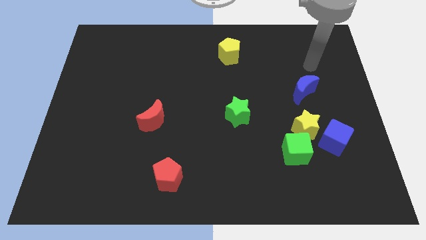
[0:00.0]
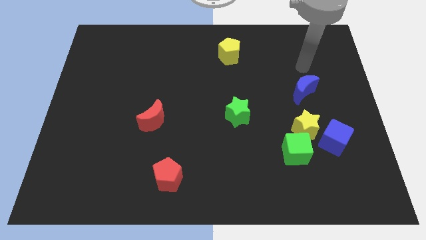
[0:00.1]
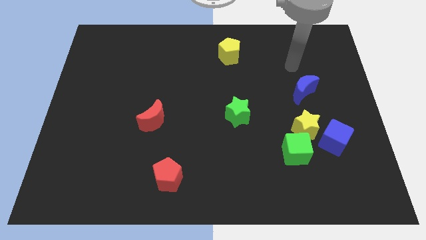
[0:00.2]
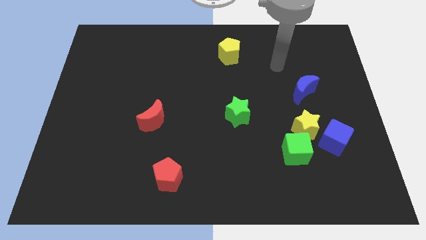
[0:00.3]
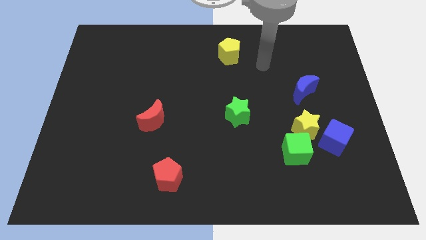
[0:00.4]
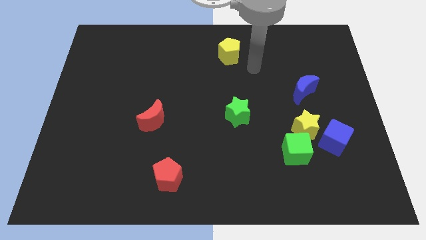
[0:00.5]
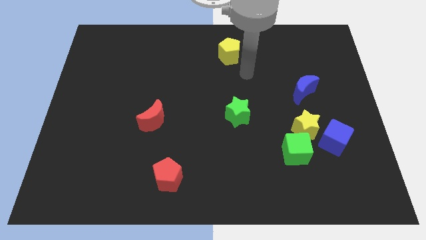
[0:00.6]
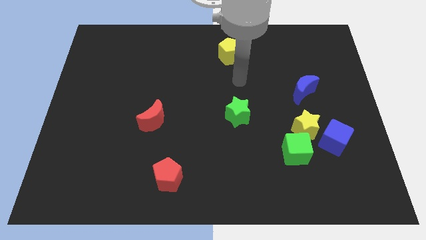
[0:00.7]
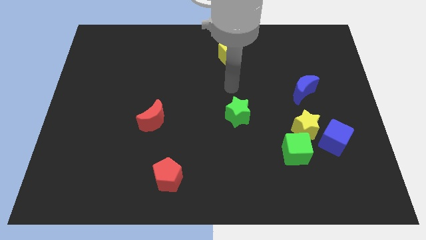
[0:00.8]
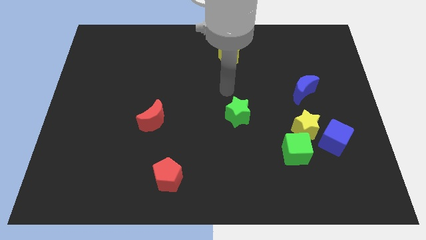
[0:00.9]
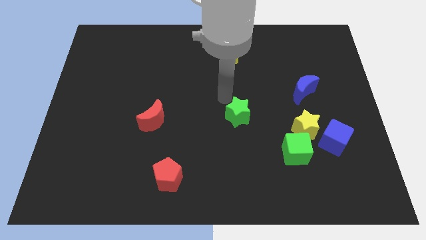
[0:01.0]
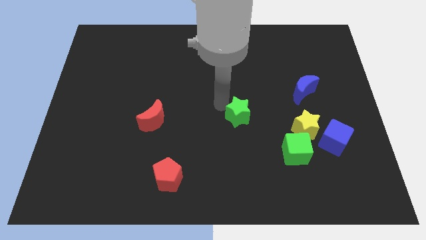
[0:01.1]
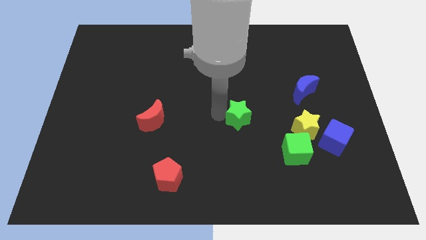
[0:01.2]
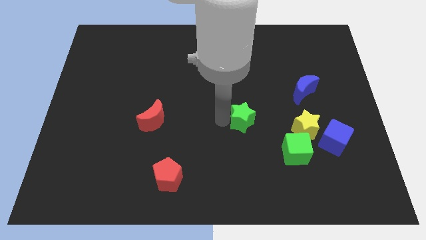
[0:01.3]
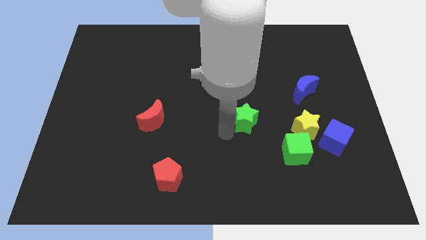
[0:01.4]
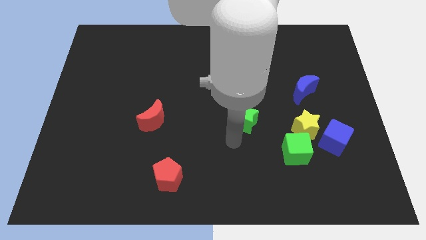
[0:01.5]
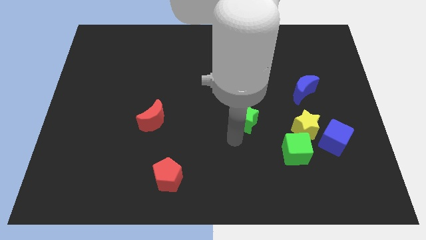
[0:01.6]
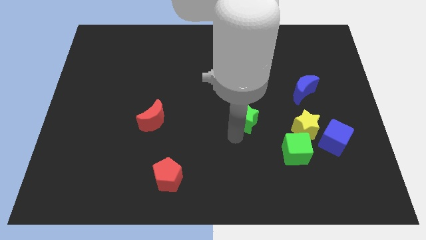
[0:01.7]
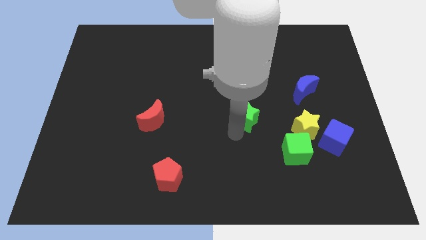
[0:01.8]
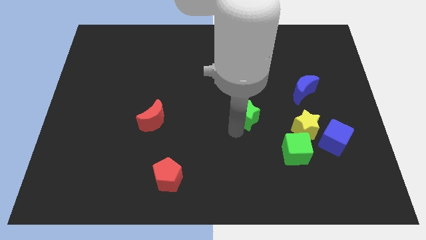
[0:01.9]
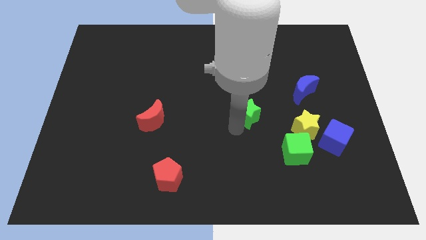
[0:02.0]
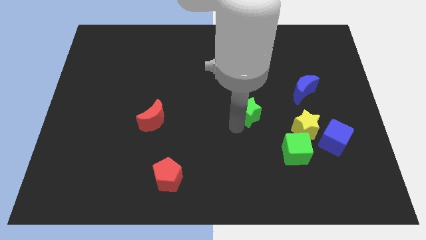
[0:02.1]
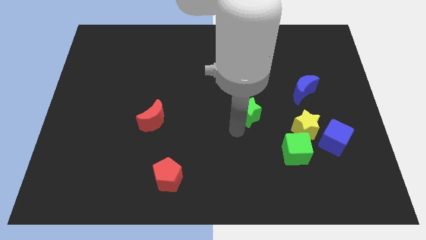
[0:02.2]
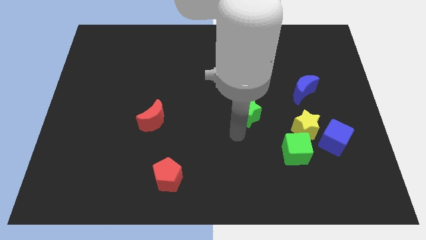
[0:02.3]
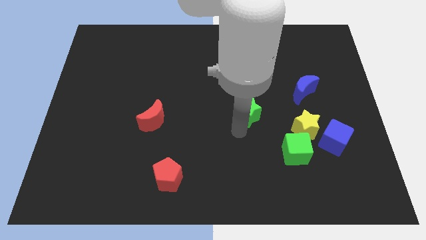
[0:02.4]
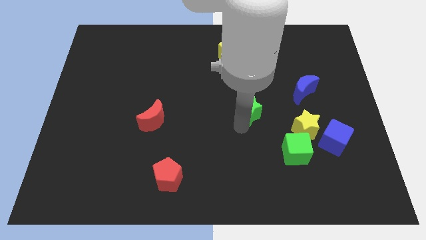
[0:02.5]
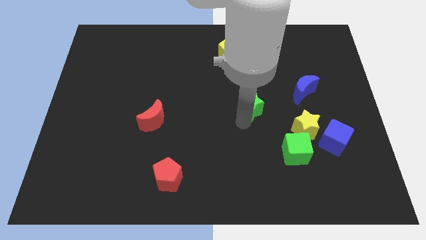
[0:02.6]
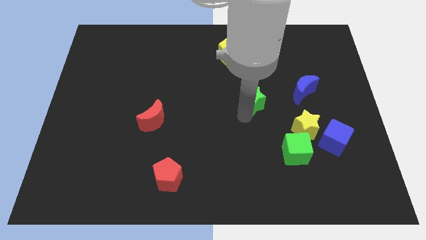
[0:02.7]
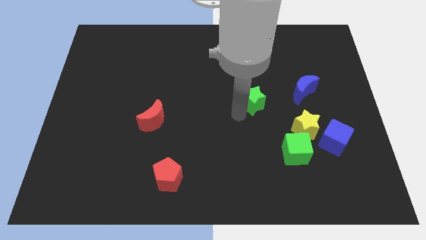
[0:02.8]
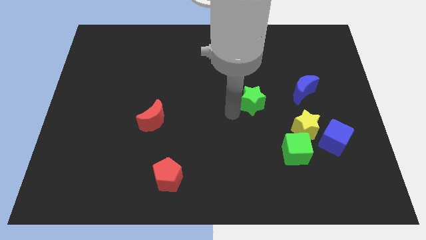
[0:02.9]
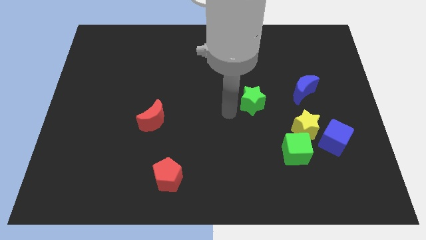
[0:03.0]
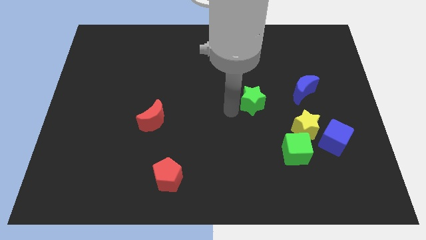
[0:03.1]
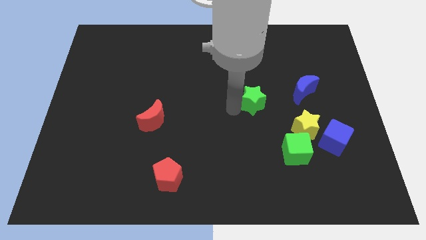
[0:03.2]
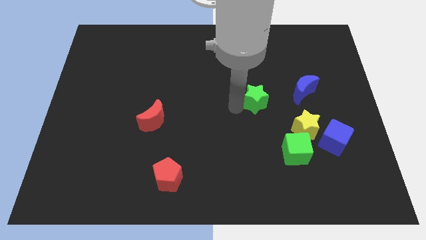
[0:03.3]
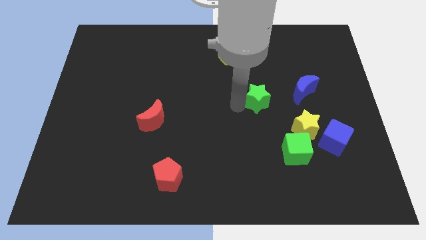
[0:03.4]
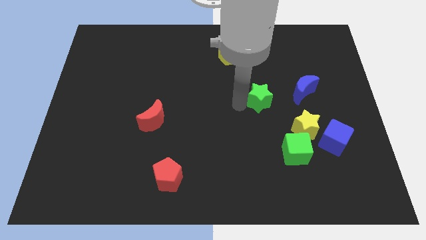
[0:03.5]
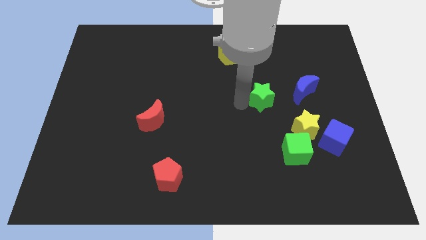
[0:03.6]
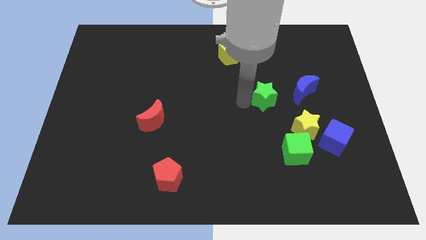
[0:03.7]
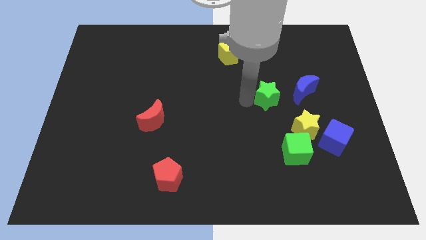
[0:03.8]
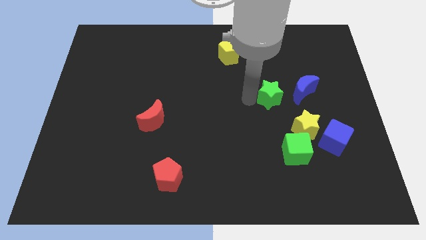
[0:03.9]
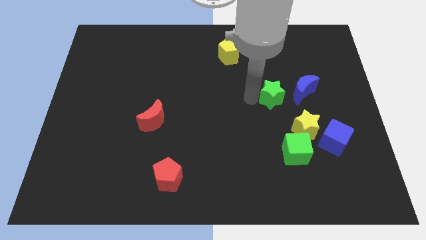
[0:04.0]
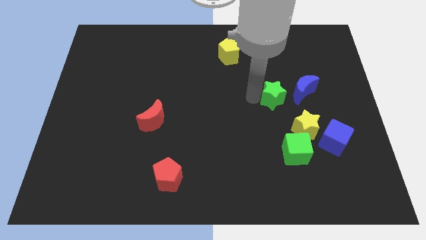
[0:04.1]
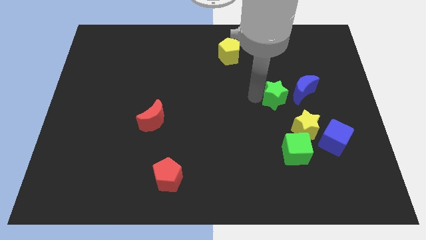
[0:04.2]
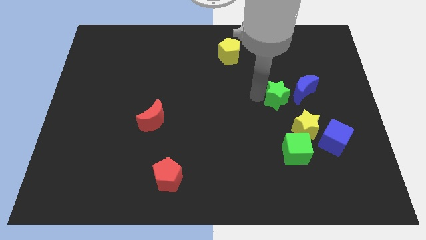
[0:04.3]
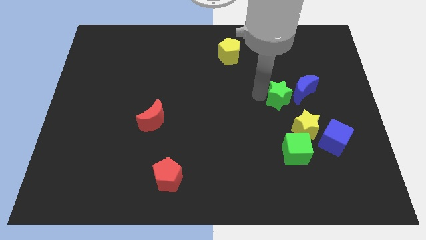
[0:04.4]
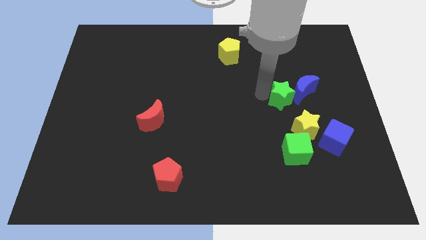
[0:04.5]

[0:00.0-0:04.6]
slide the green star close to the blue moon

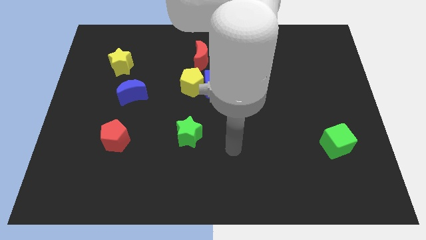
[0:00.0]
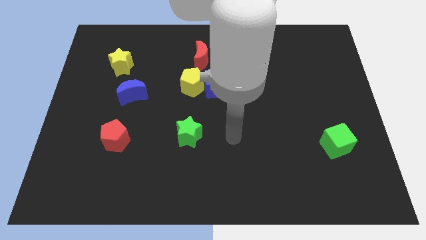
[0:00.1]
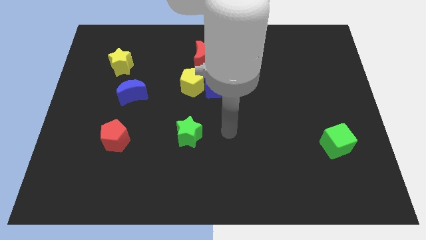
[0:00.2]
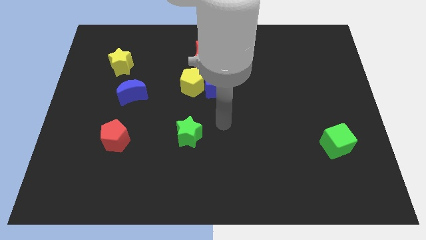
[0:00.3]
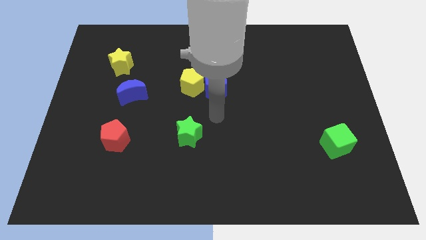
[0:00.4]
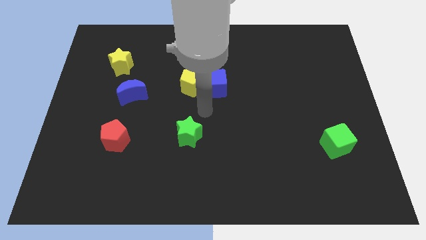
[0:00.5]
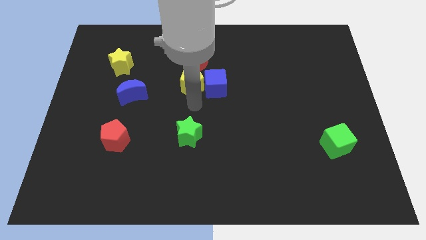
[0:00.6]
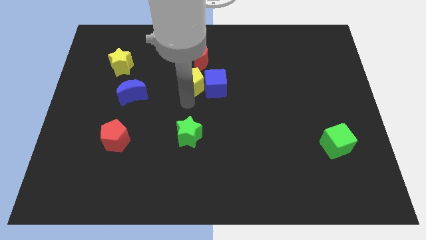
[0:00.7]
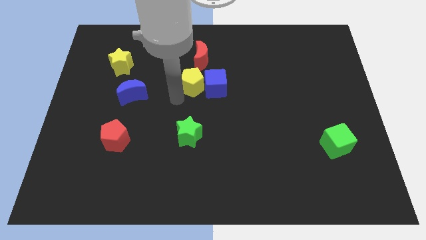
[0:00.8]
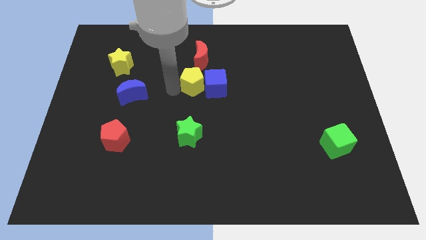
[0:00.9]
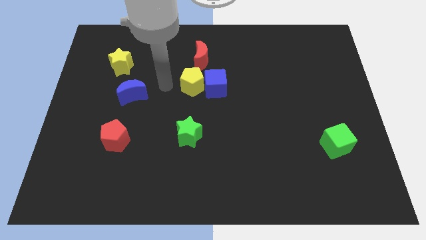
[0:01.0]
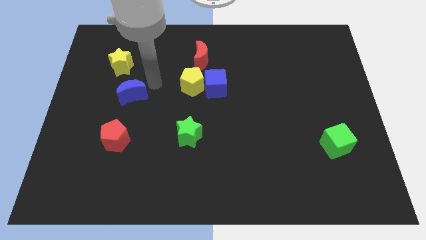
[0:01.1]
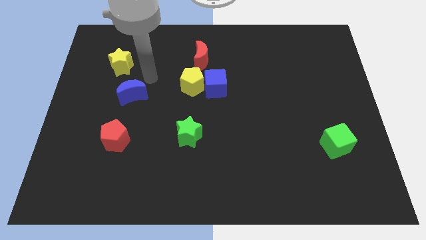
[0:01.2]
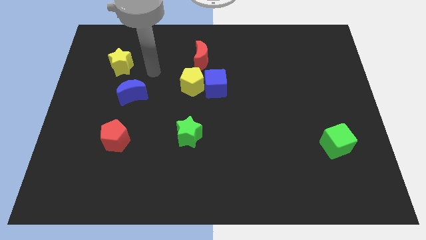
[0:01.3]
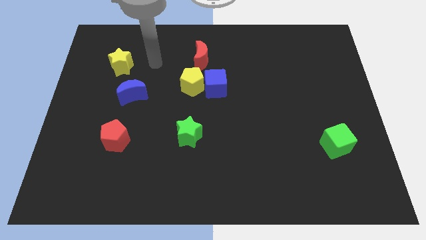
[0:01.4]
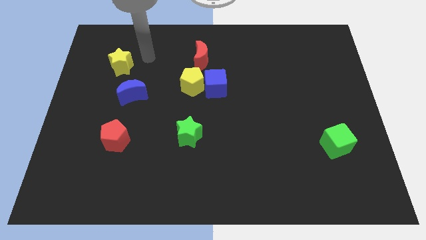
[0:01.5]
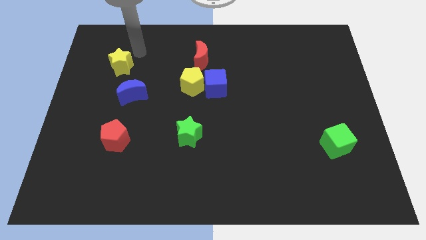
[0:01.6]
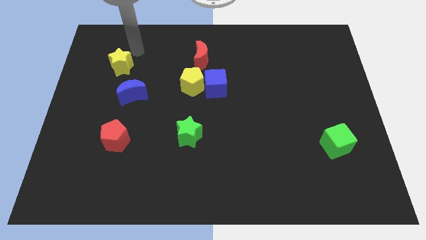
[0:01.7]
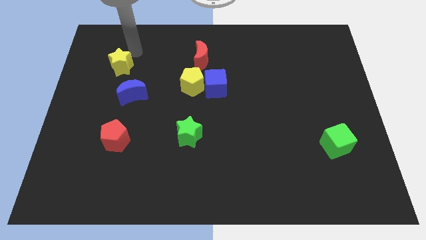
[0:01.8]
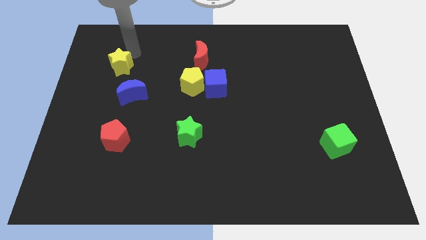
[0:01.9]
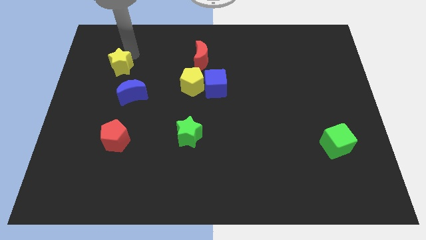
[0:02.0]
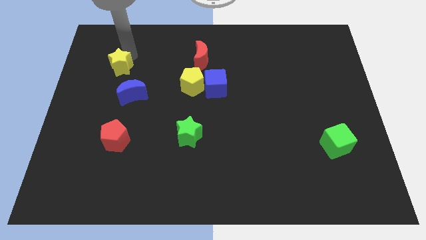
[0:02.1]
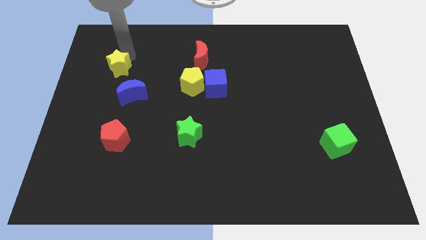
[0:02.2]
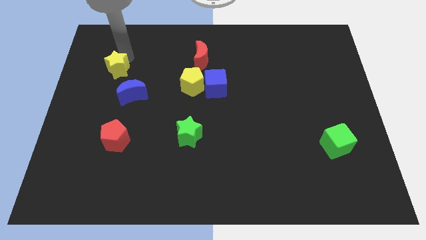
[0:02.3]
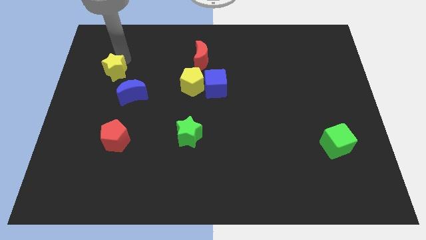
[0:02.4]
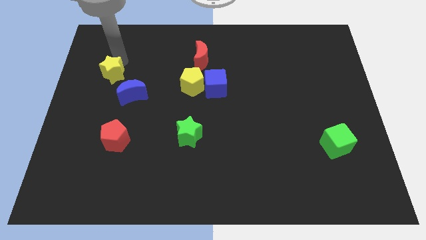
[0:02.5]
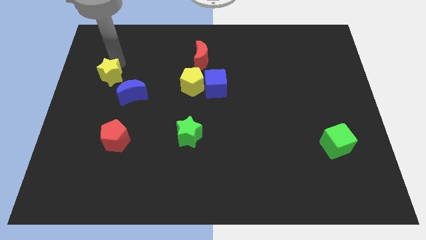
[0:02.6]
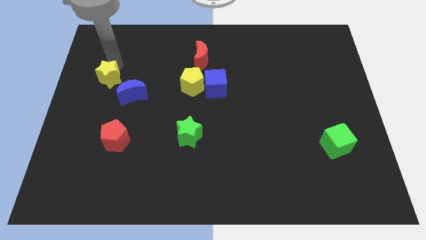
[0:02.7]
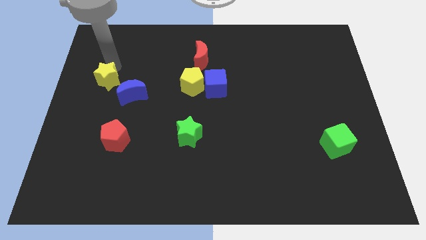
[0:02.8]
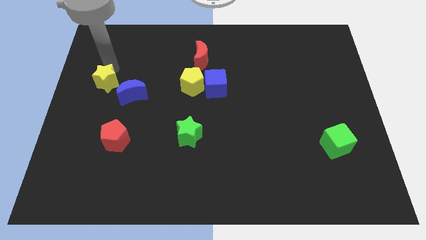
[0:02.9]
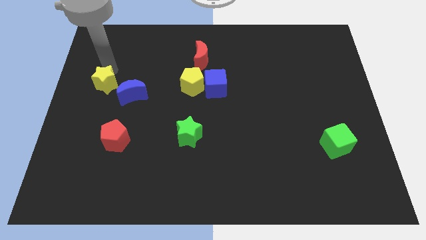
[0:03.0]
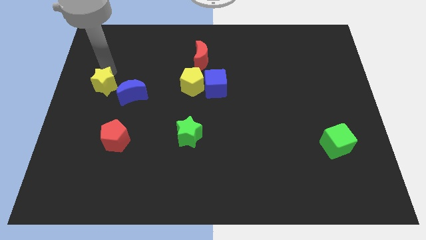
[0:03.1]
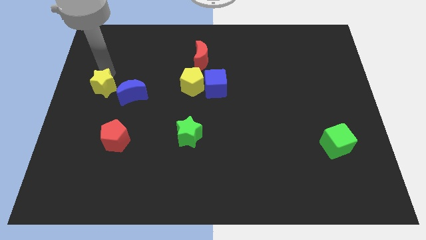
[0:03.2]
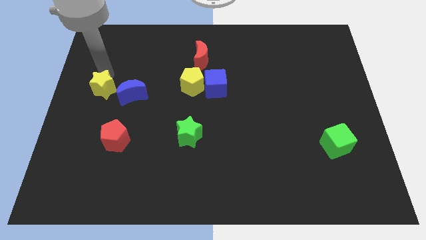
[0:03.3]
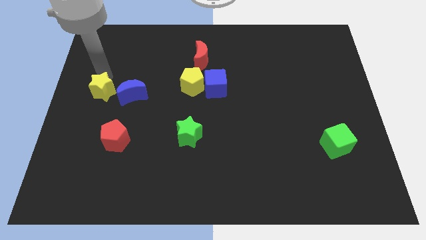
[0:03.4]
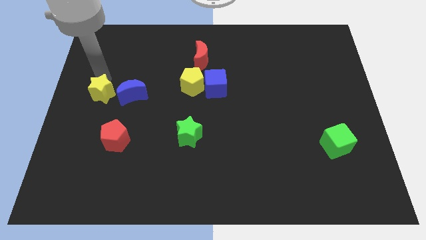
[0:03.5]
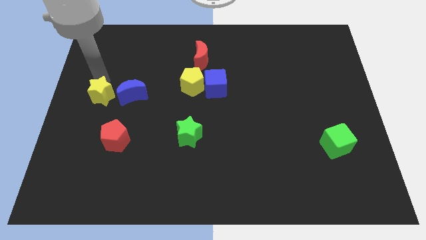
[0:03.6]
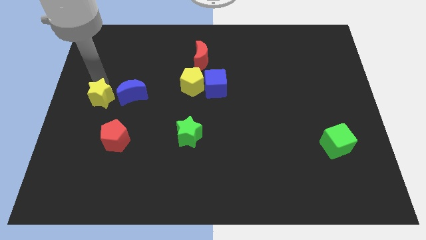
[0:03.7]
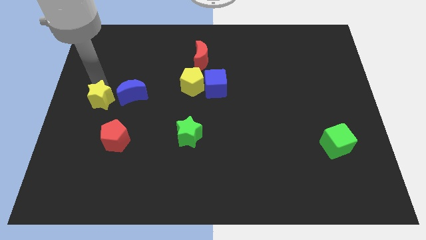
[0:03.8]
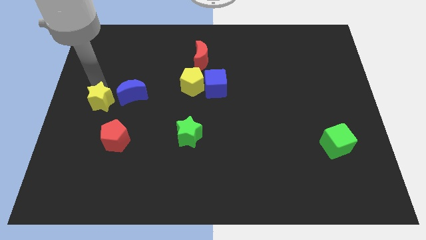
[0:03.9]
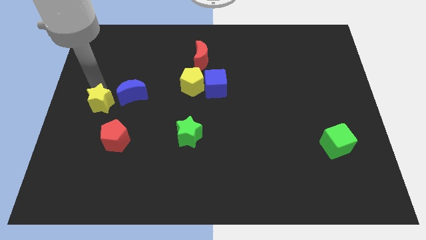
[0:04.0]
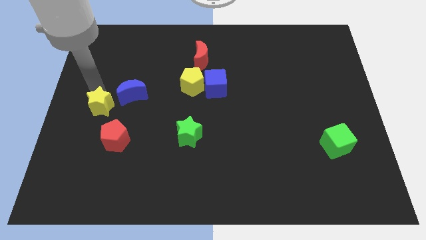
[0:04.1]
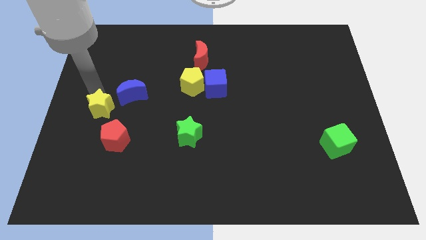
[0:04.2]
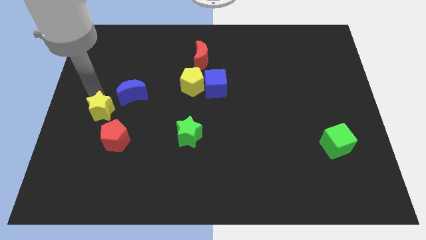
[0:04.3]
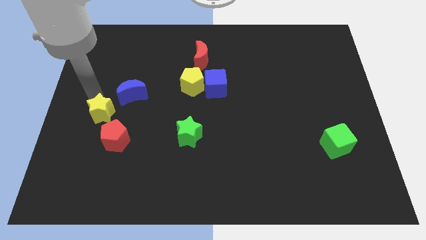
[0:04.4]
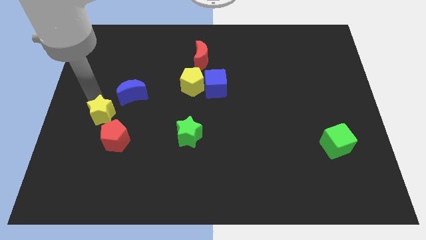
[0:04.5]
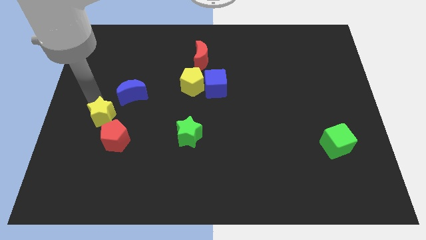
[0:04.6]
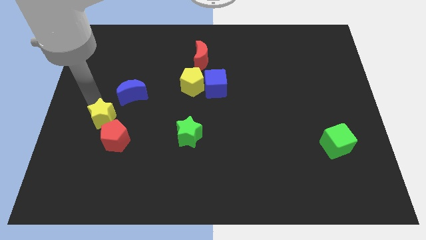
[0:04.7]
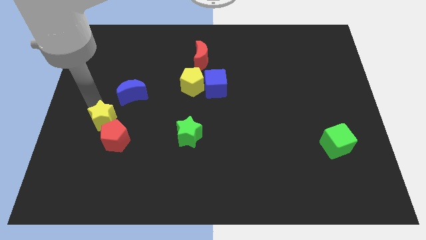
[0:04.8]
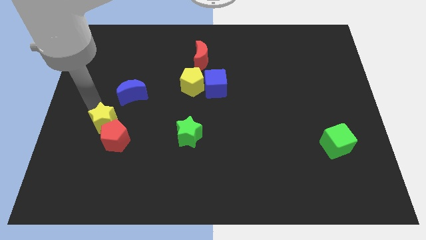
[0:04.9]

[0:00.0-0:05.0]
move the yellow star to the red pentagon
